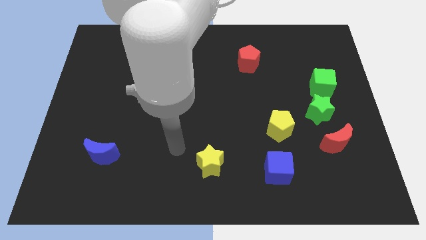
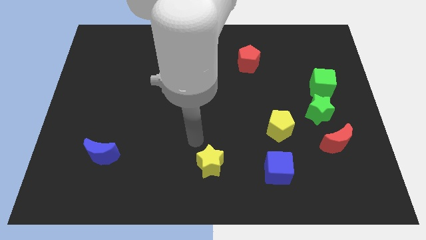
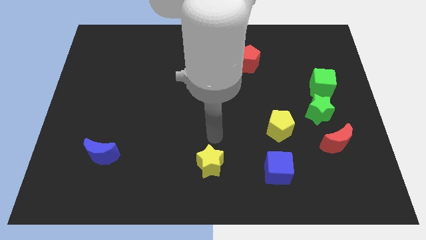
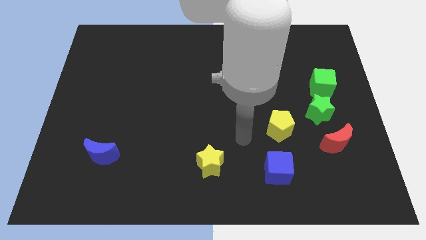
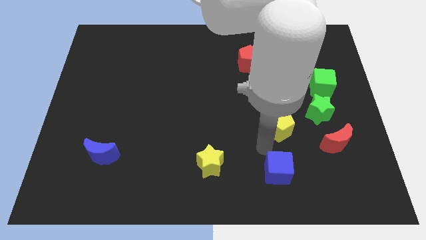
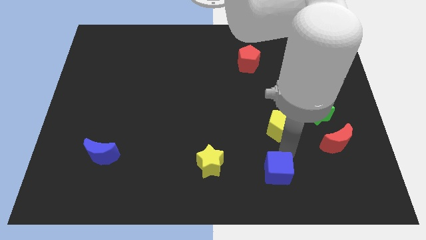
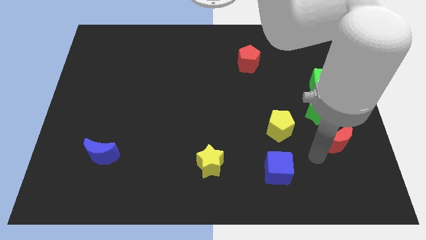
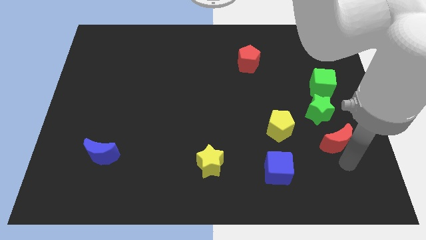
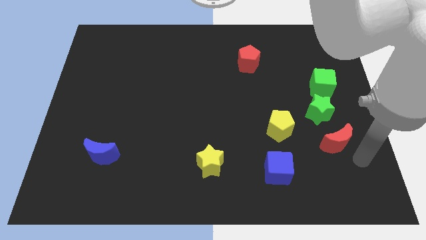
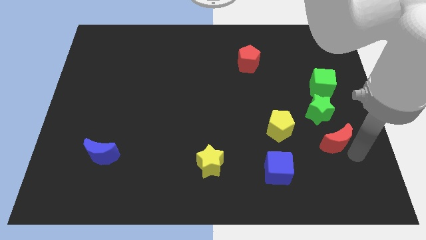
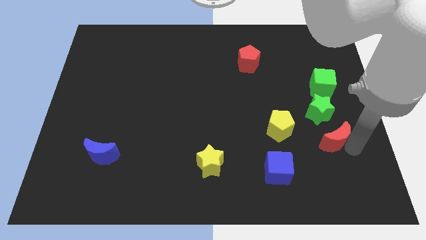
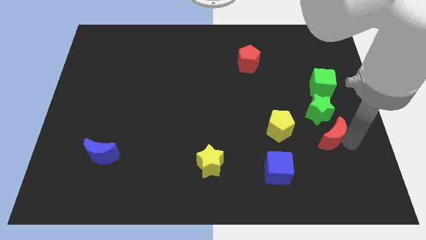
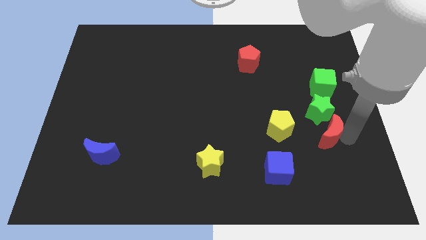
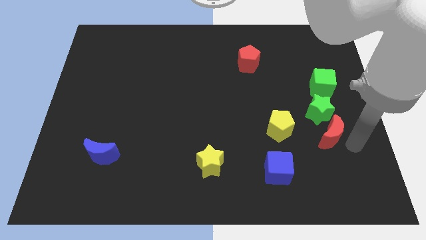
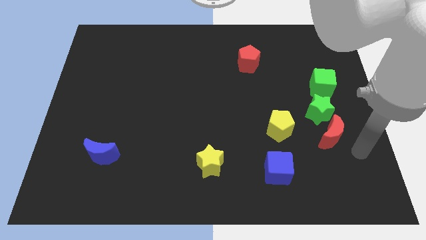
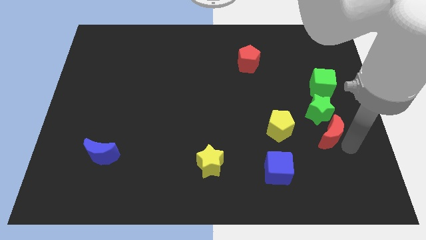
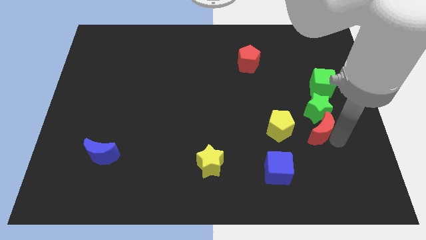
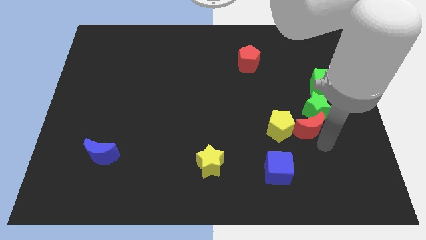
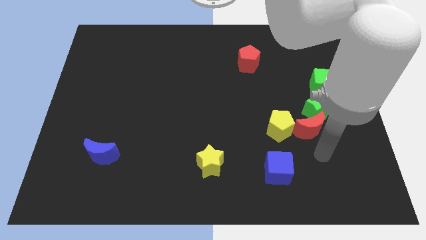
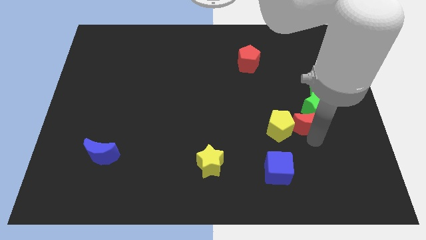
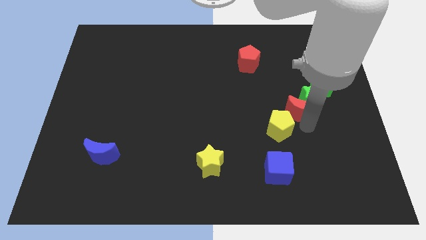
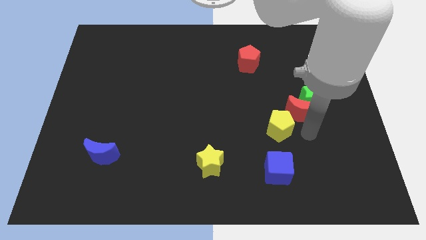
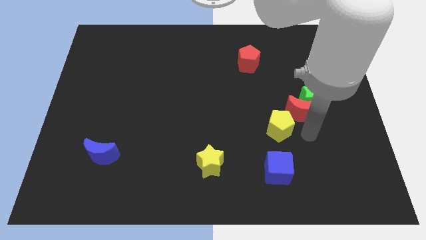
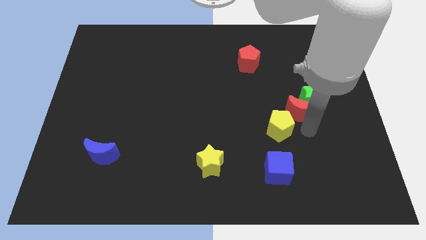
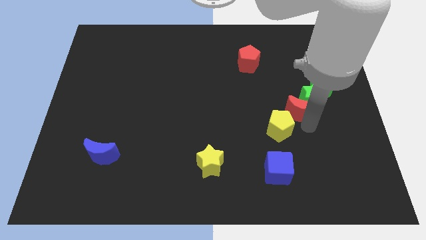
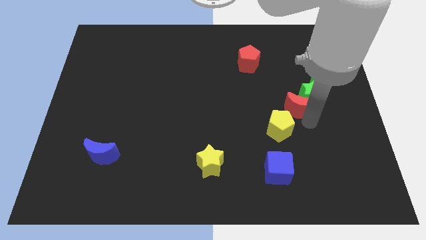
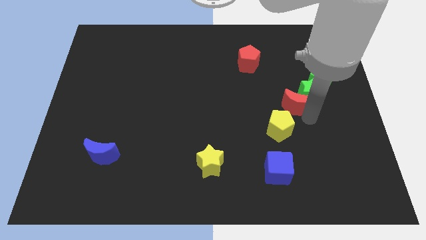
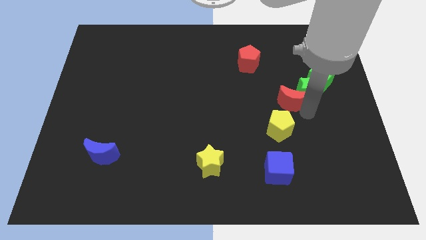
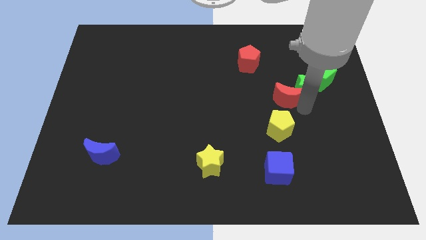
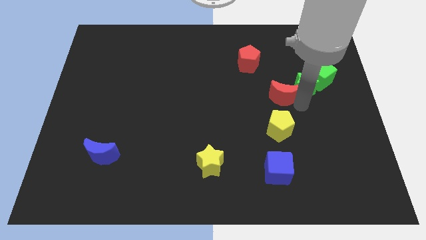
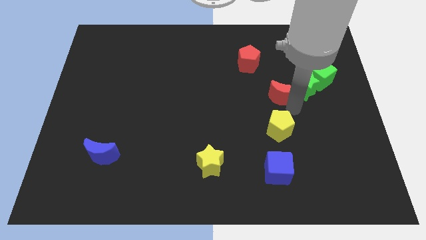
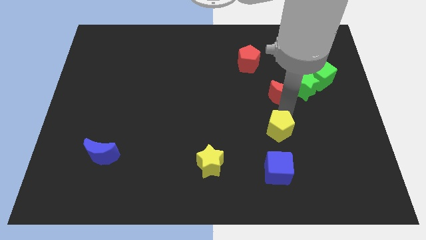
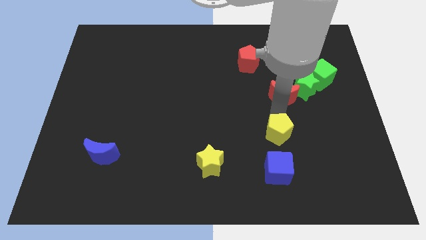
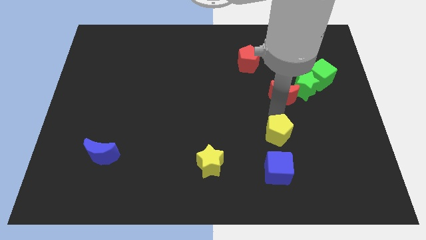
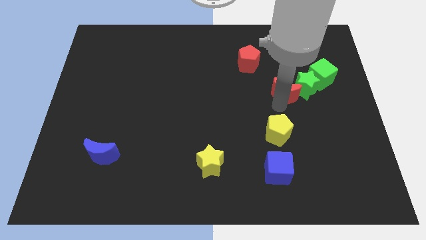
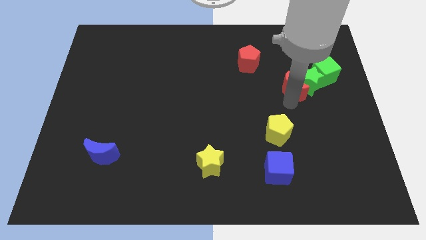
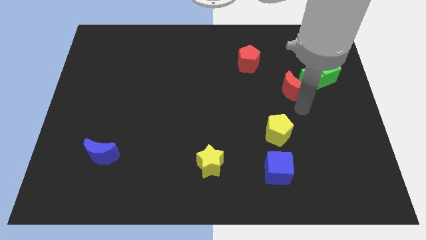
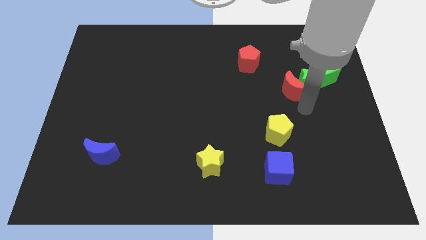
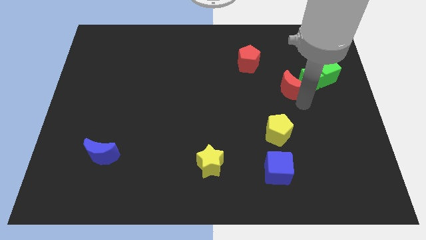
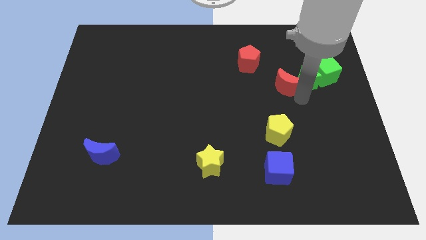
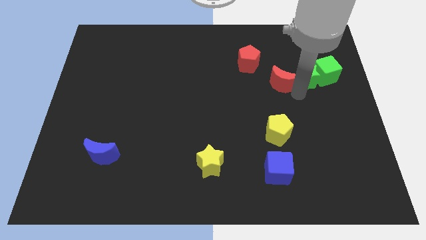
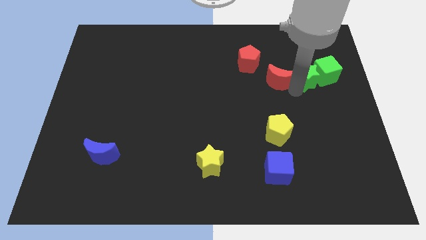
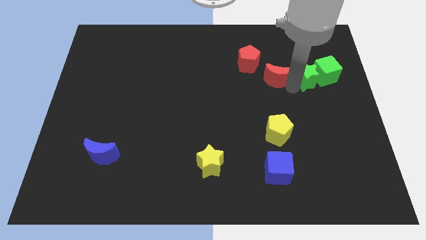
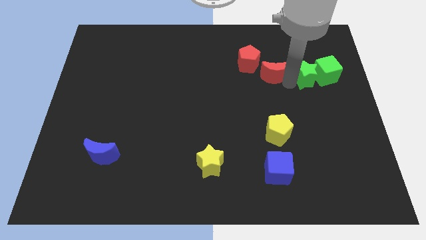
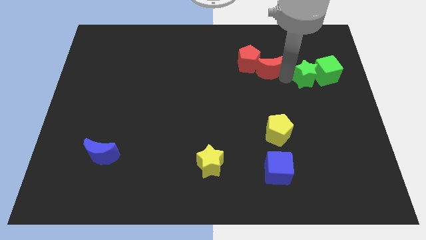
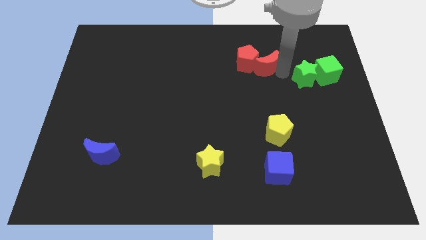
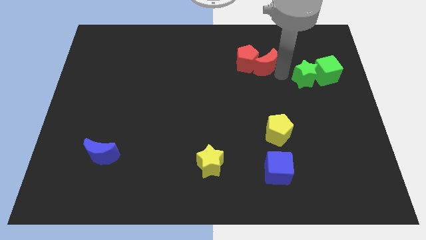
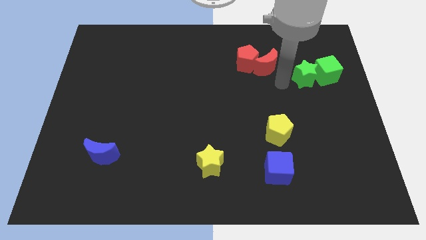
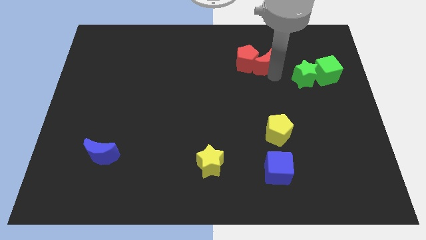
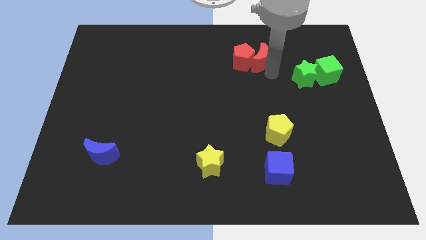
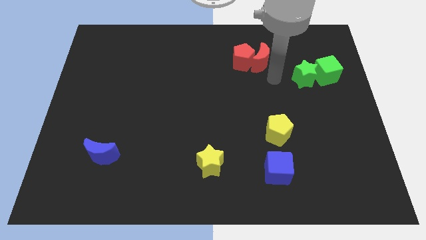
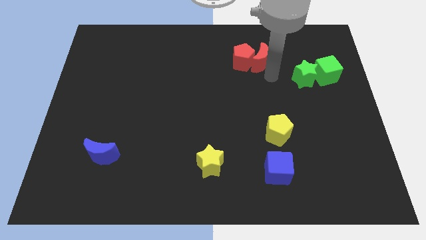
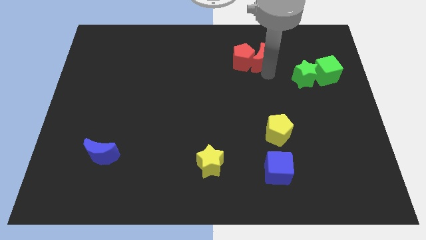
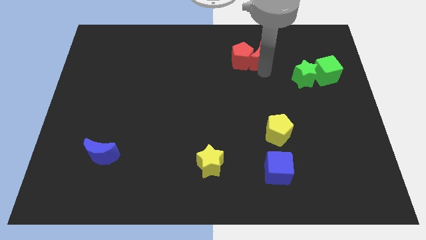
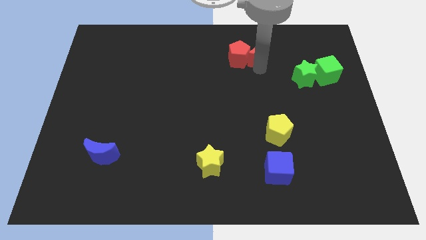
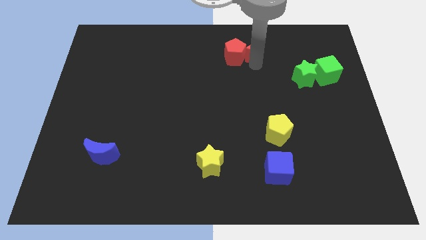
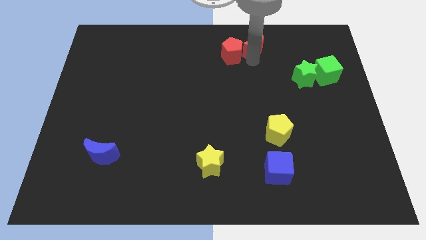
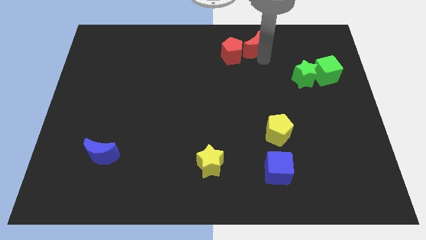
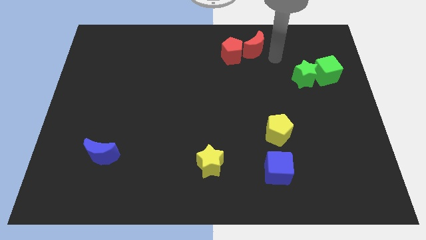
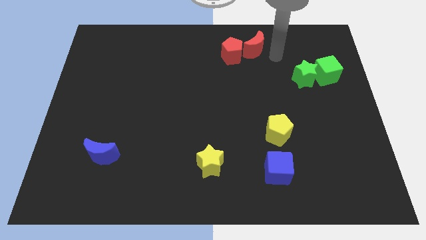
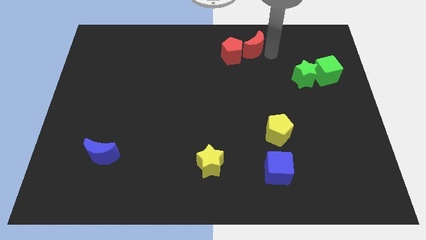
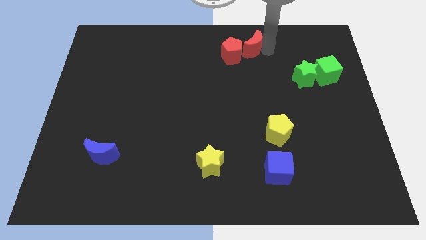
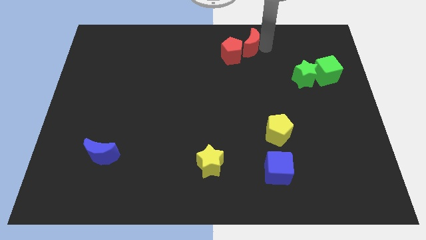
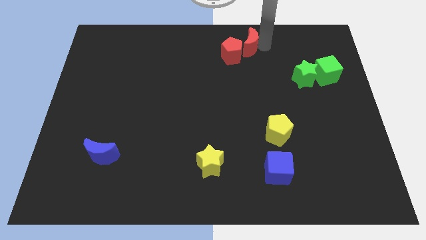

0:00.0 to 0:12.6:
move the red moon to the top side
